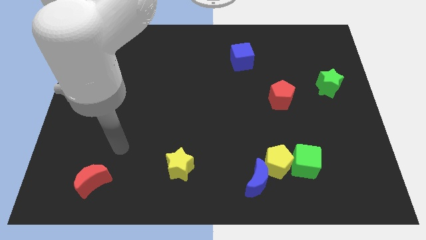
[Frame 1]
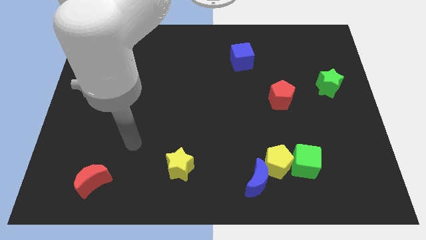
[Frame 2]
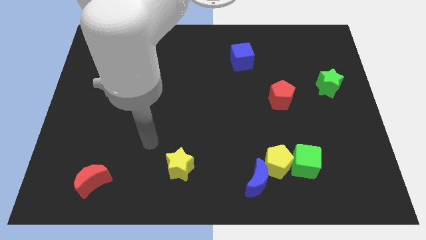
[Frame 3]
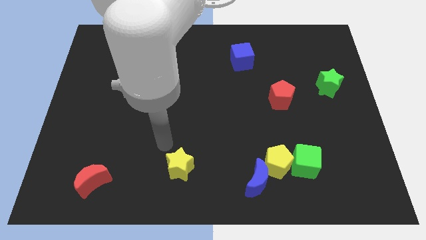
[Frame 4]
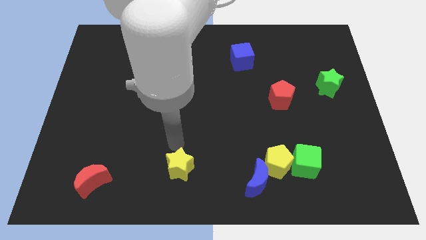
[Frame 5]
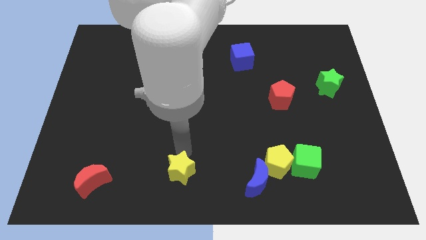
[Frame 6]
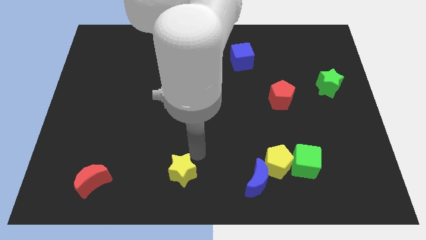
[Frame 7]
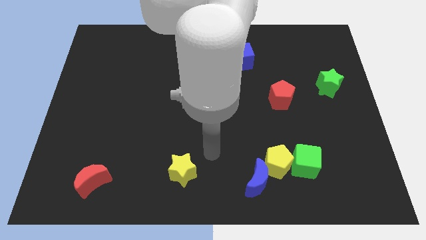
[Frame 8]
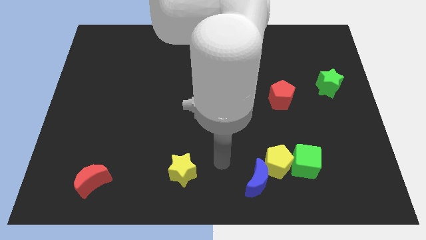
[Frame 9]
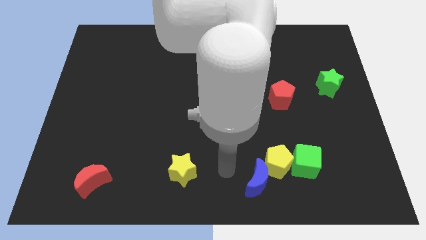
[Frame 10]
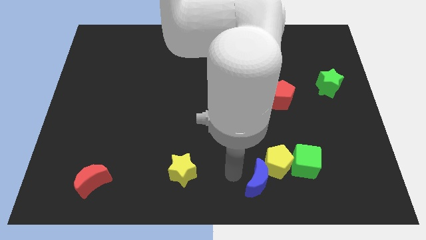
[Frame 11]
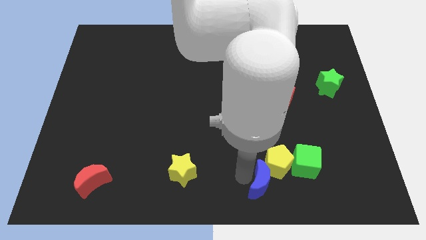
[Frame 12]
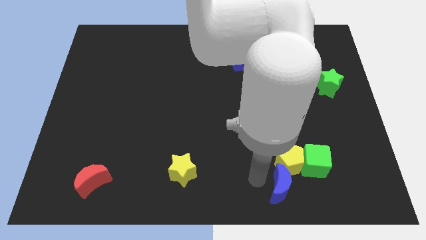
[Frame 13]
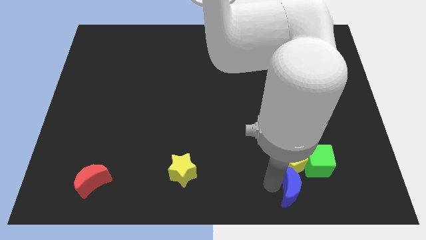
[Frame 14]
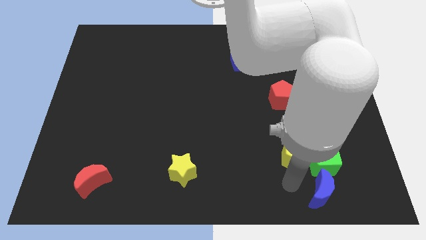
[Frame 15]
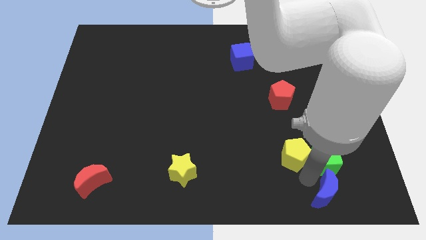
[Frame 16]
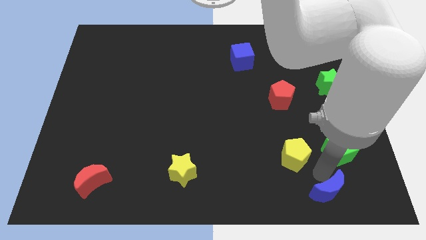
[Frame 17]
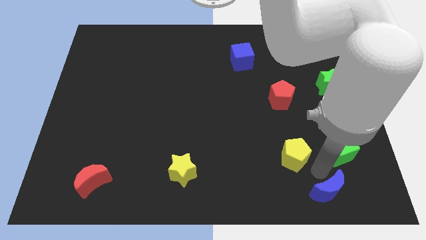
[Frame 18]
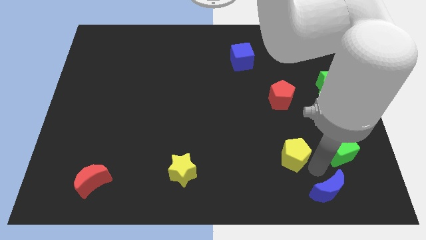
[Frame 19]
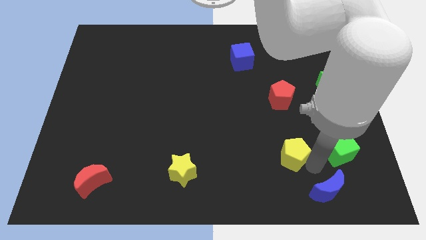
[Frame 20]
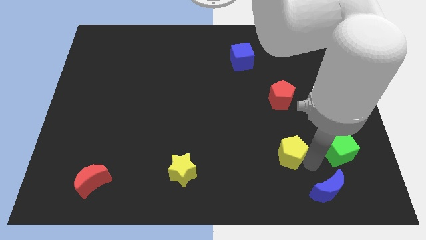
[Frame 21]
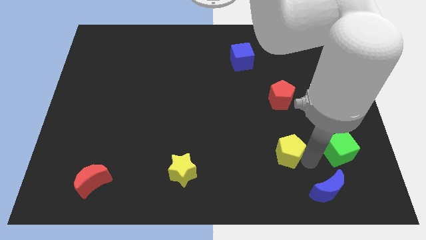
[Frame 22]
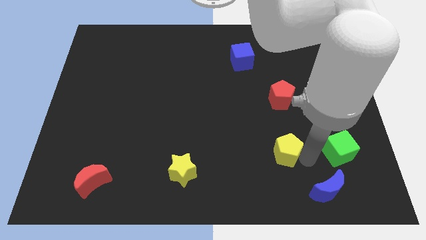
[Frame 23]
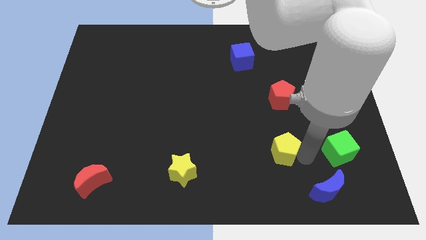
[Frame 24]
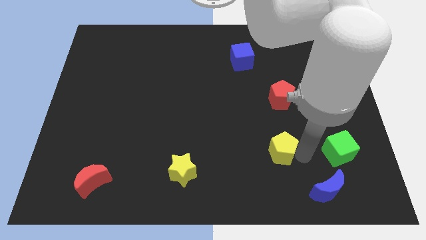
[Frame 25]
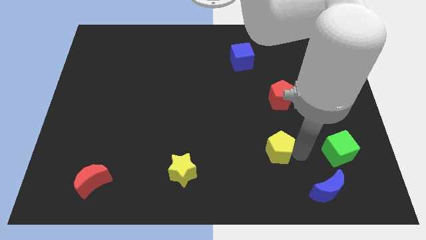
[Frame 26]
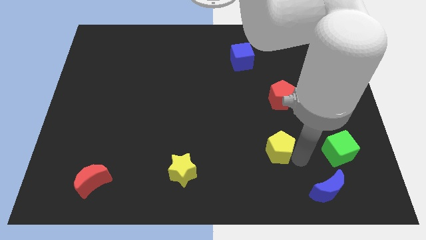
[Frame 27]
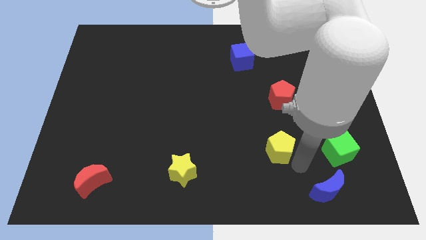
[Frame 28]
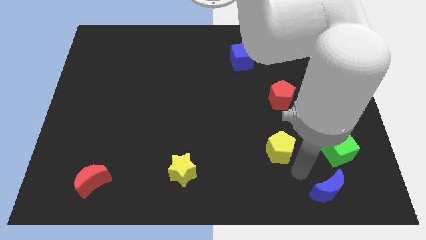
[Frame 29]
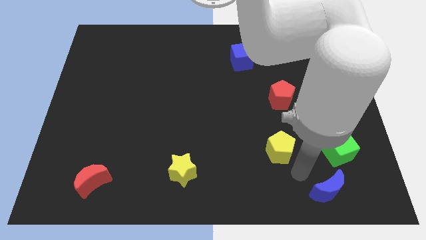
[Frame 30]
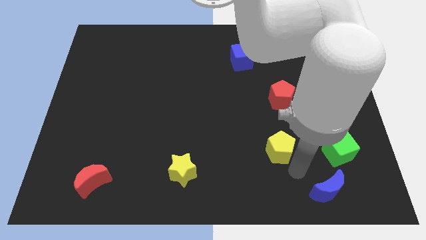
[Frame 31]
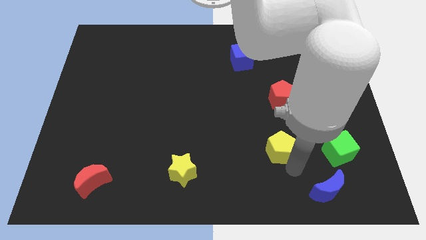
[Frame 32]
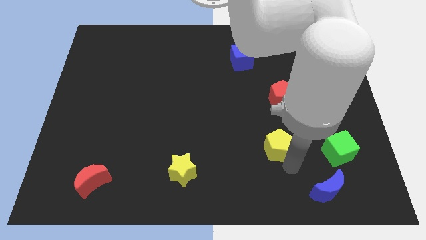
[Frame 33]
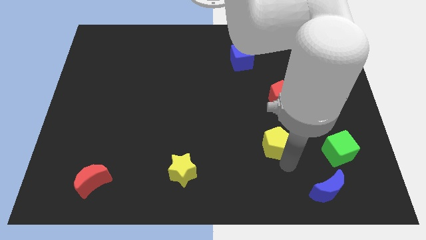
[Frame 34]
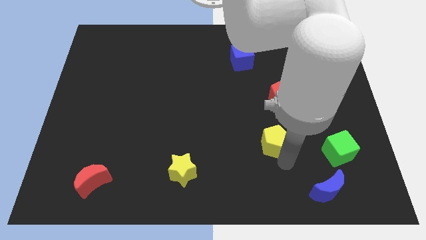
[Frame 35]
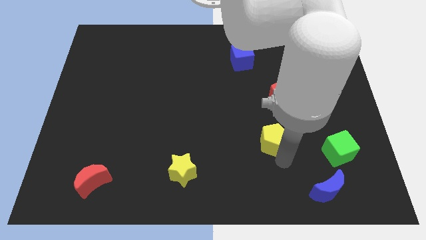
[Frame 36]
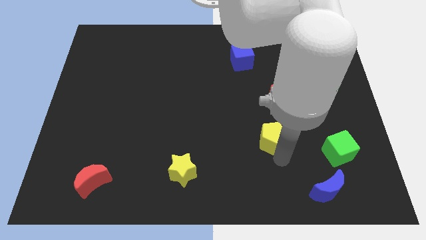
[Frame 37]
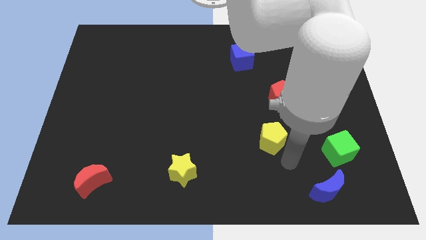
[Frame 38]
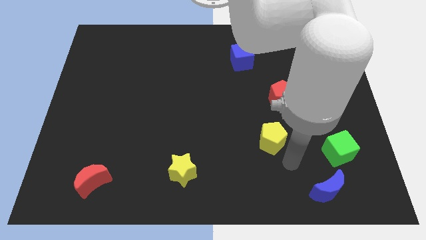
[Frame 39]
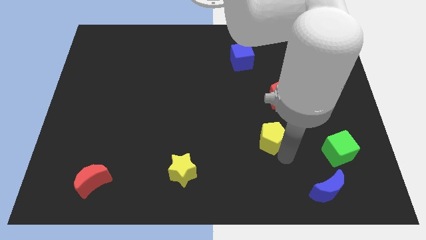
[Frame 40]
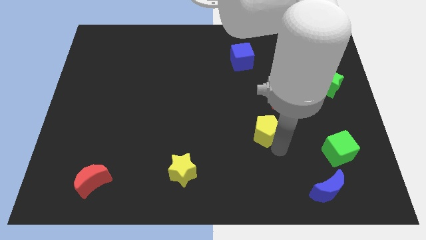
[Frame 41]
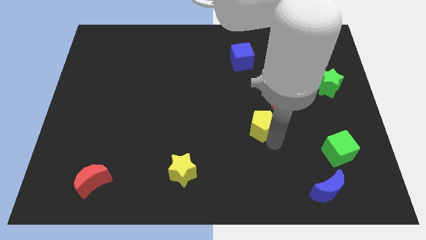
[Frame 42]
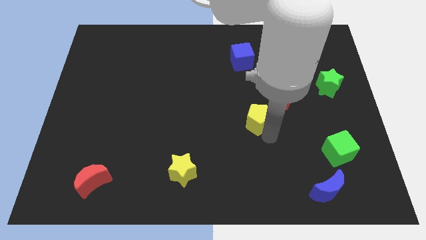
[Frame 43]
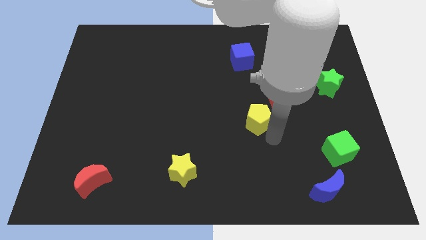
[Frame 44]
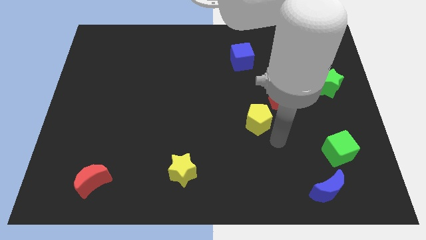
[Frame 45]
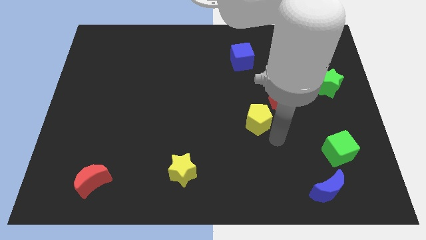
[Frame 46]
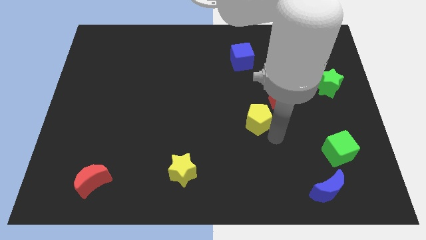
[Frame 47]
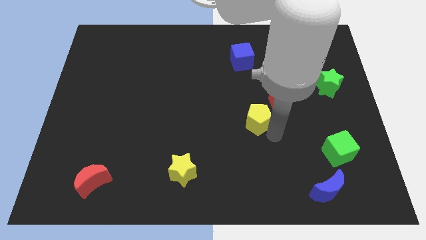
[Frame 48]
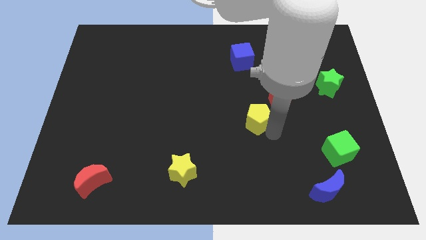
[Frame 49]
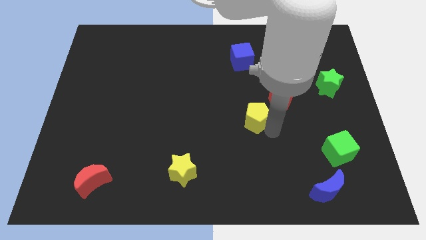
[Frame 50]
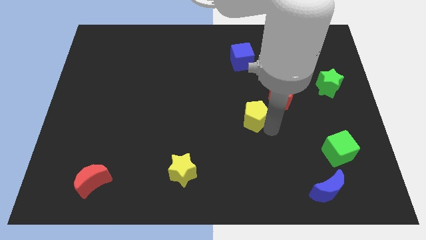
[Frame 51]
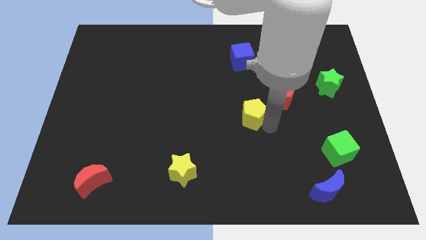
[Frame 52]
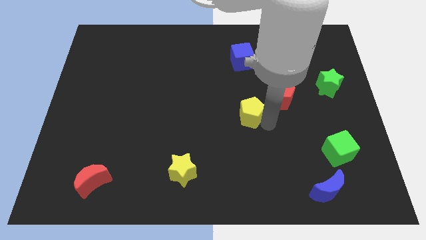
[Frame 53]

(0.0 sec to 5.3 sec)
slide the yellow pentagon to the left side of the red pentagon

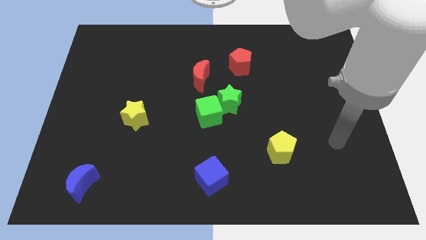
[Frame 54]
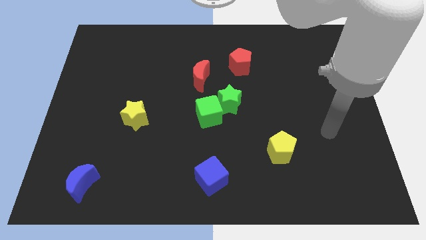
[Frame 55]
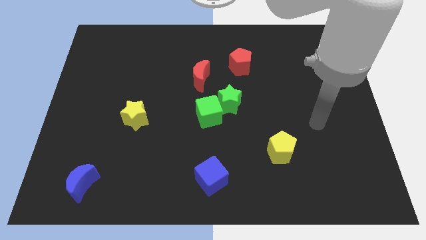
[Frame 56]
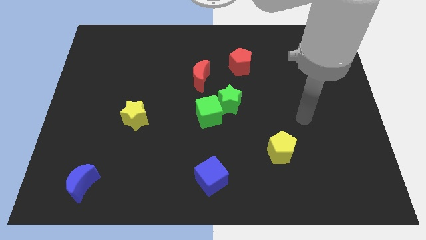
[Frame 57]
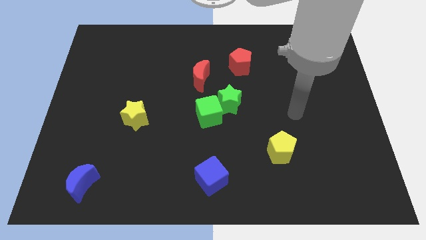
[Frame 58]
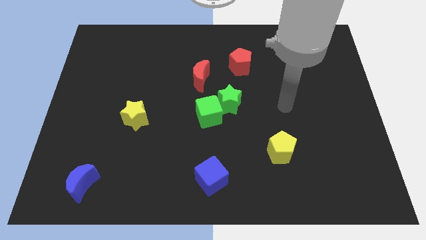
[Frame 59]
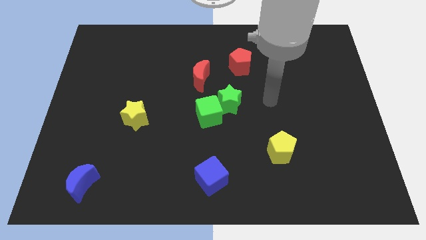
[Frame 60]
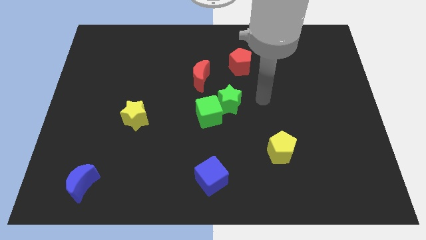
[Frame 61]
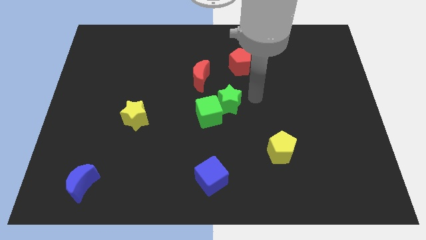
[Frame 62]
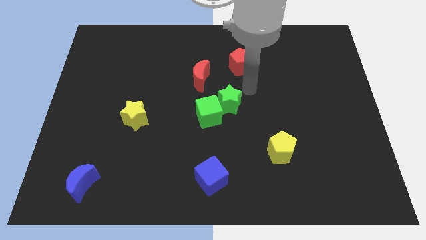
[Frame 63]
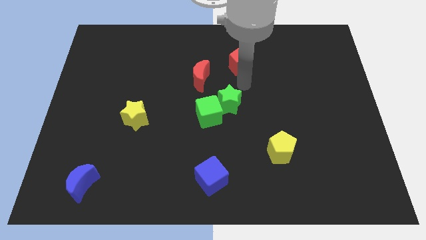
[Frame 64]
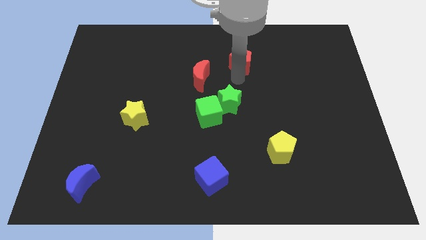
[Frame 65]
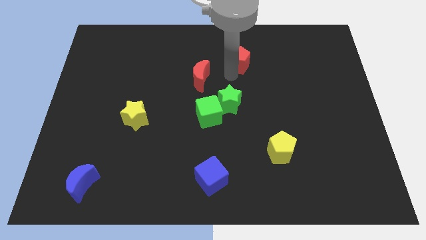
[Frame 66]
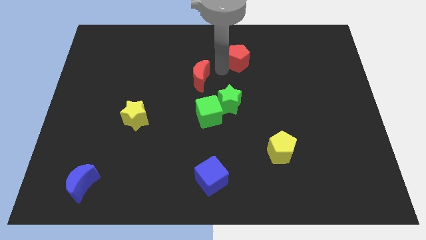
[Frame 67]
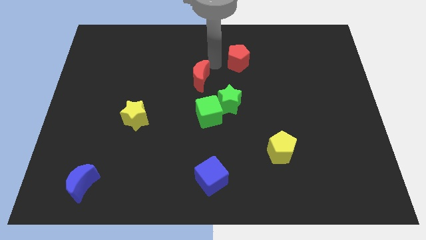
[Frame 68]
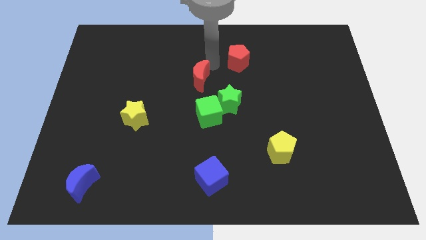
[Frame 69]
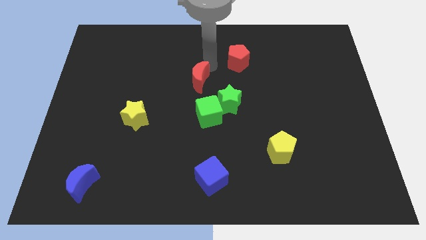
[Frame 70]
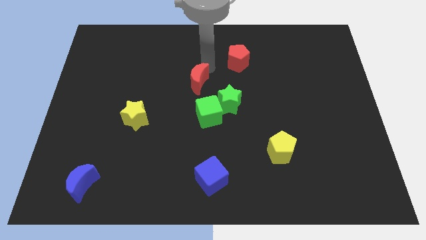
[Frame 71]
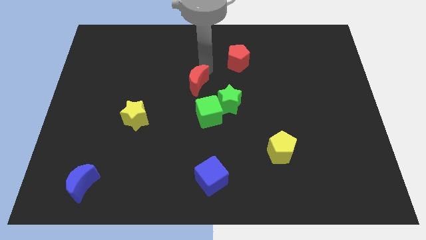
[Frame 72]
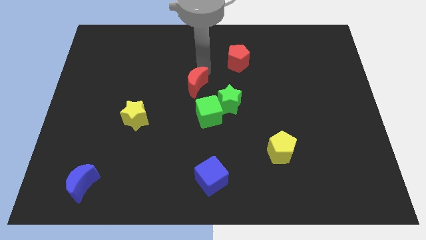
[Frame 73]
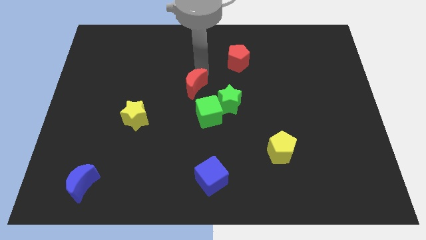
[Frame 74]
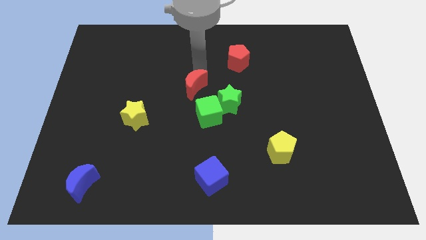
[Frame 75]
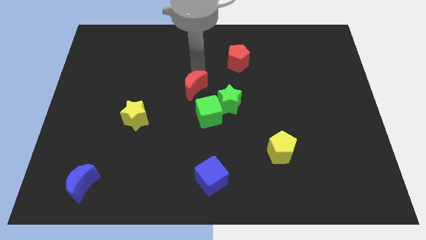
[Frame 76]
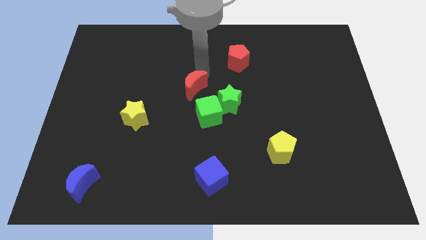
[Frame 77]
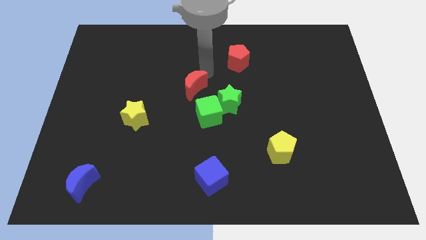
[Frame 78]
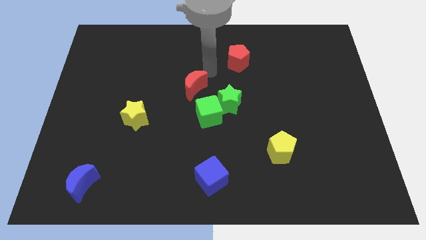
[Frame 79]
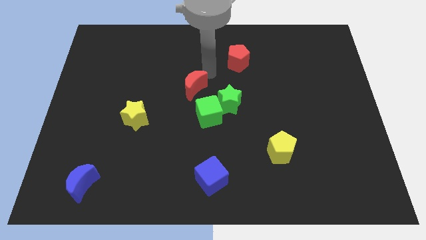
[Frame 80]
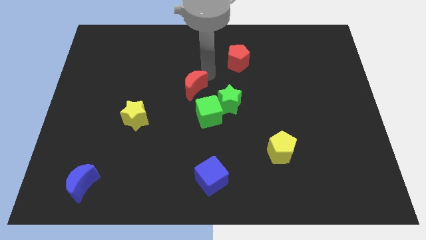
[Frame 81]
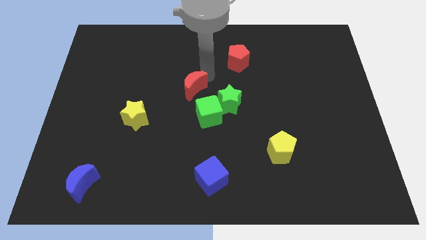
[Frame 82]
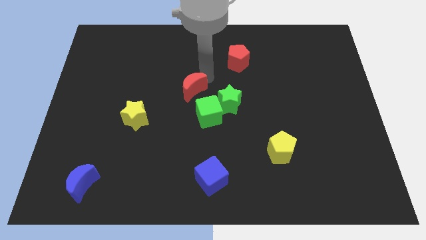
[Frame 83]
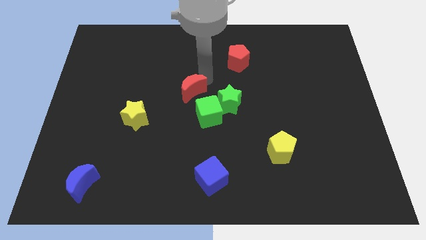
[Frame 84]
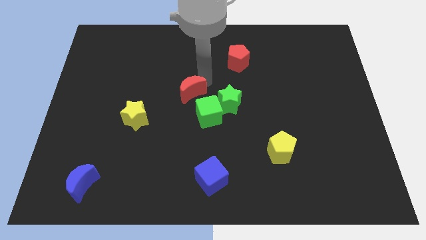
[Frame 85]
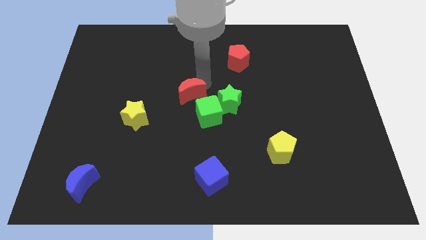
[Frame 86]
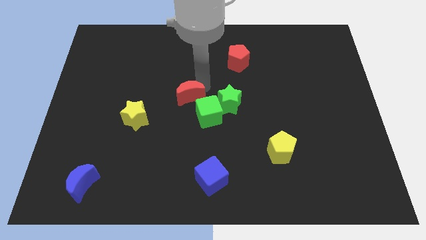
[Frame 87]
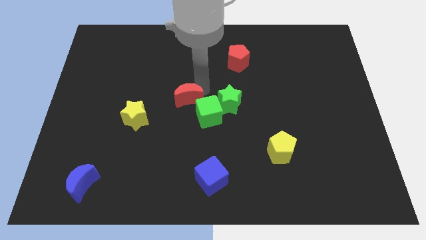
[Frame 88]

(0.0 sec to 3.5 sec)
put the red moon just left of the green cube
